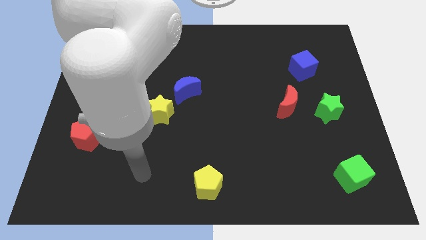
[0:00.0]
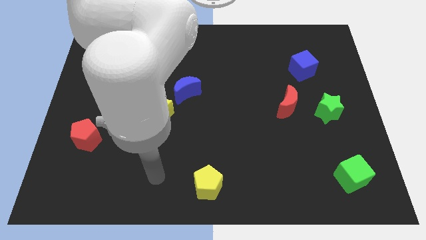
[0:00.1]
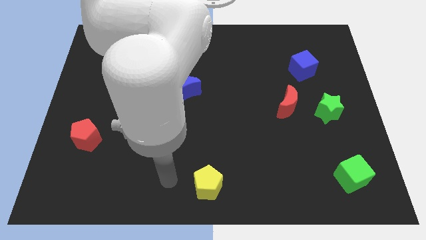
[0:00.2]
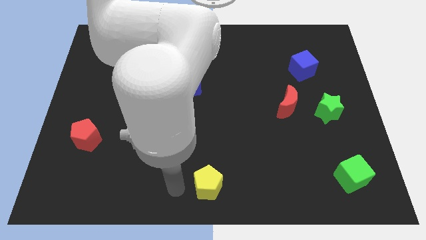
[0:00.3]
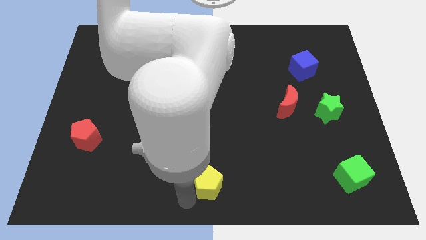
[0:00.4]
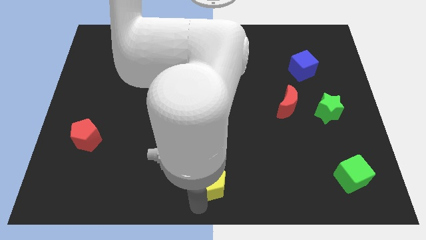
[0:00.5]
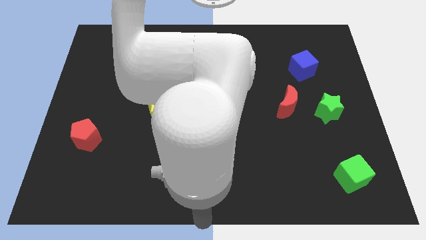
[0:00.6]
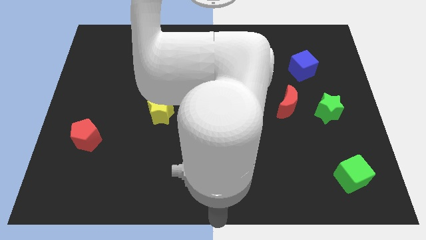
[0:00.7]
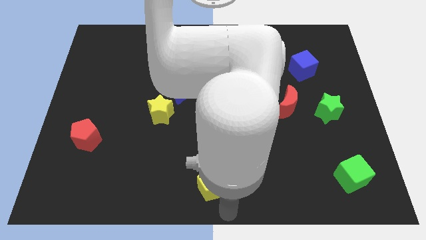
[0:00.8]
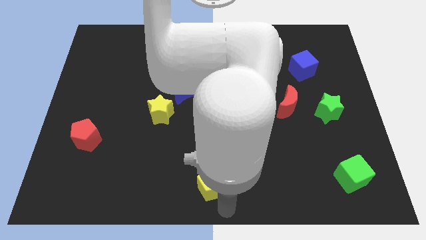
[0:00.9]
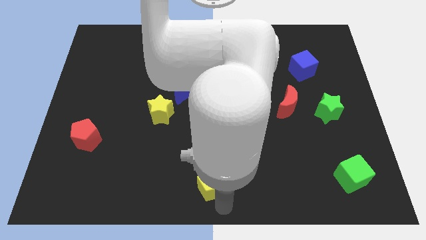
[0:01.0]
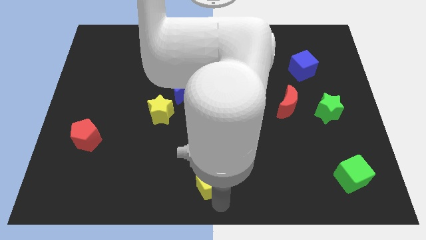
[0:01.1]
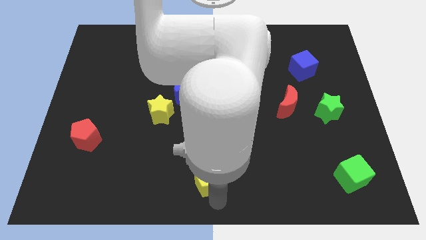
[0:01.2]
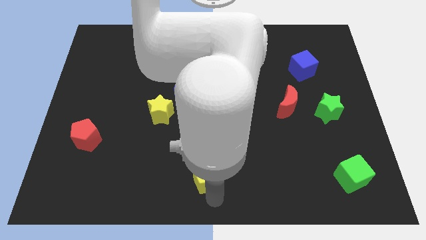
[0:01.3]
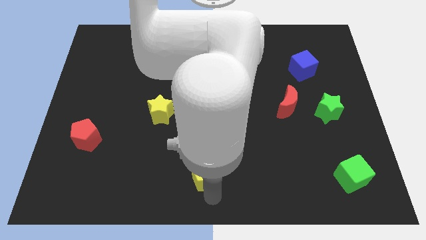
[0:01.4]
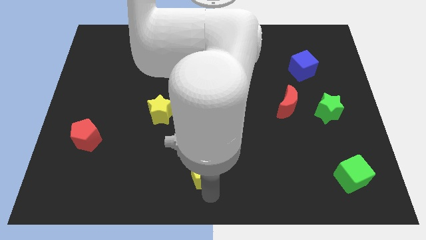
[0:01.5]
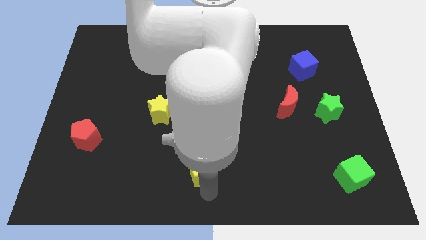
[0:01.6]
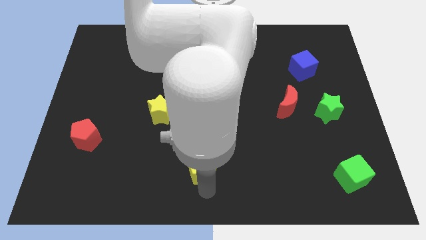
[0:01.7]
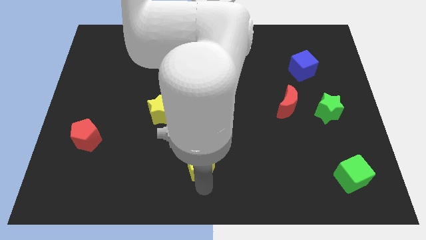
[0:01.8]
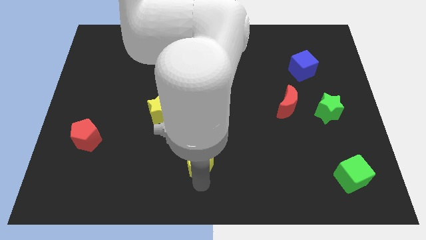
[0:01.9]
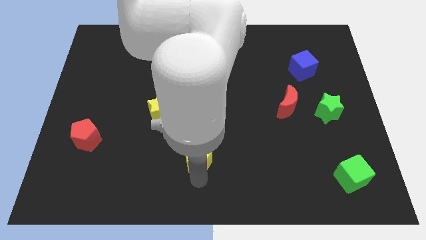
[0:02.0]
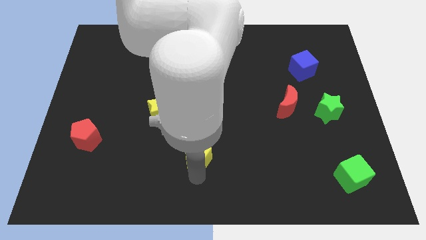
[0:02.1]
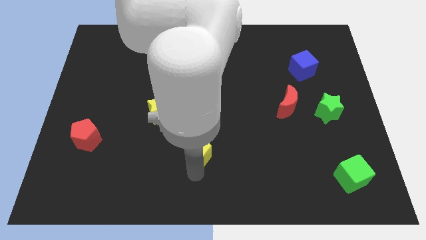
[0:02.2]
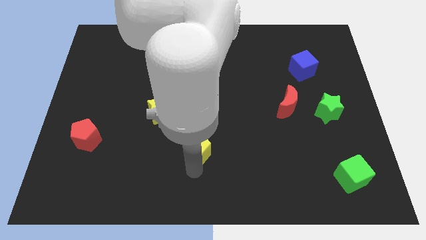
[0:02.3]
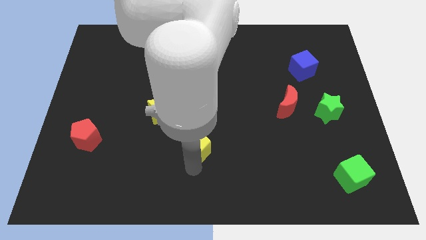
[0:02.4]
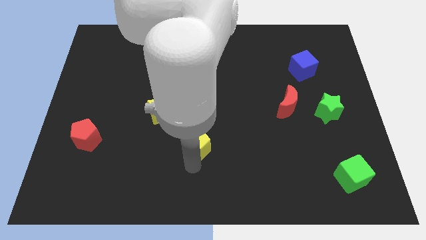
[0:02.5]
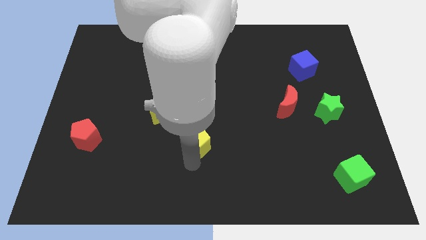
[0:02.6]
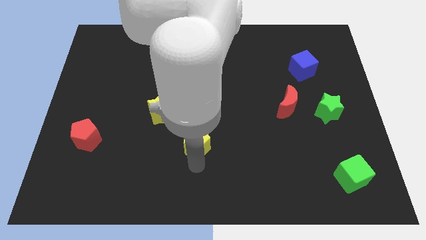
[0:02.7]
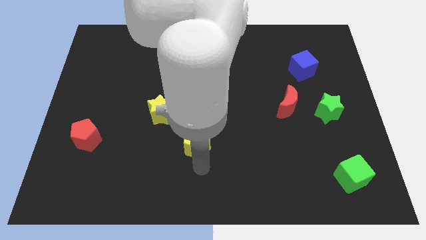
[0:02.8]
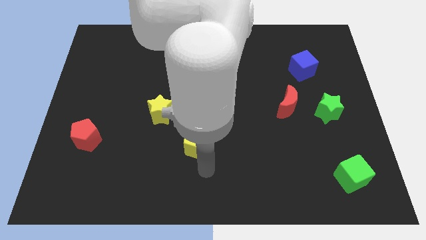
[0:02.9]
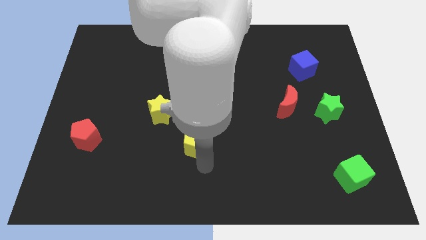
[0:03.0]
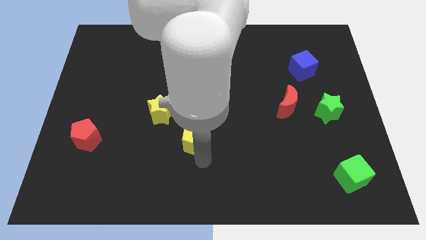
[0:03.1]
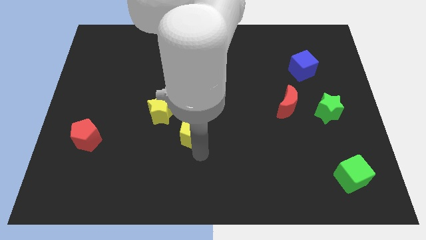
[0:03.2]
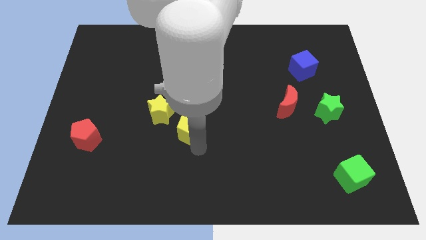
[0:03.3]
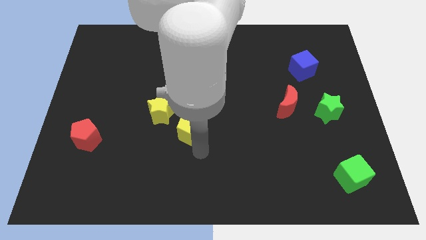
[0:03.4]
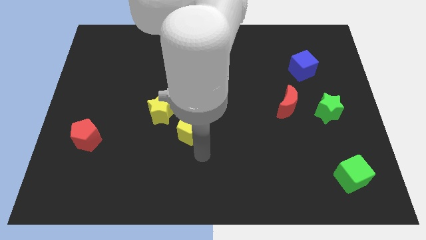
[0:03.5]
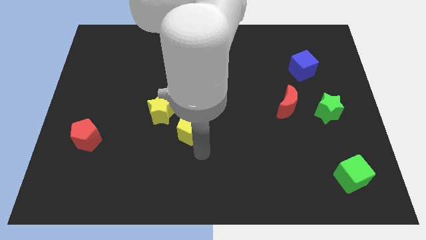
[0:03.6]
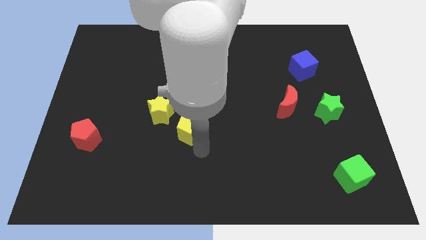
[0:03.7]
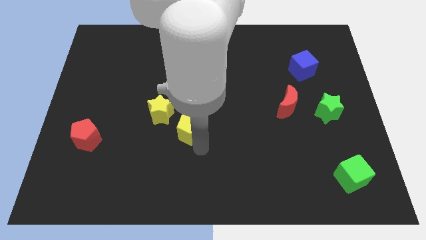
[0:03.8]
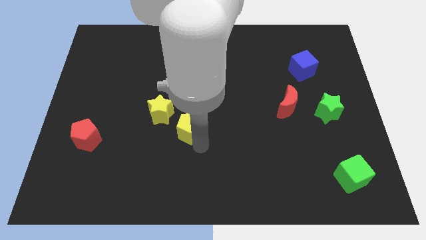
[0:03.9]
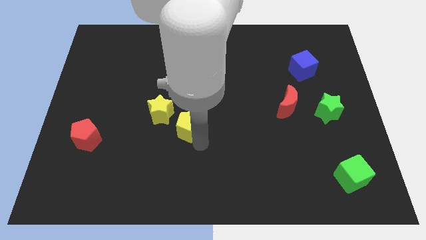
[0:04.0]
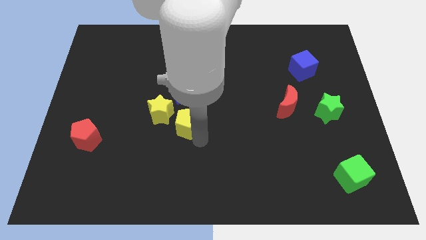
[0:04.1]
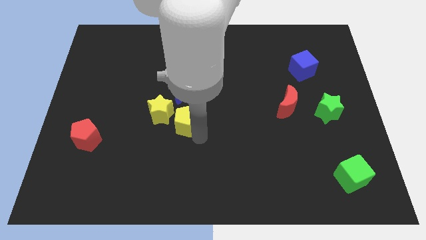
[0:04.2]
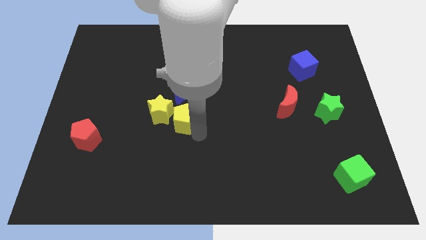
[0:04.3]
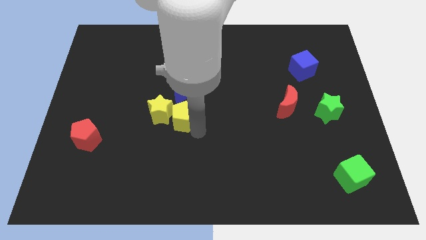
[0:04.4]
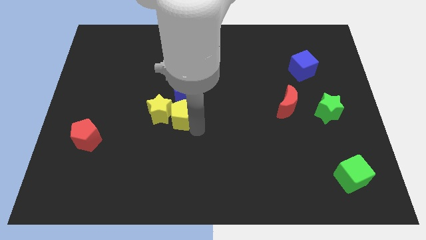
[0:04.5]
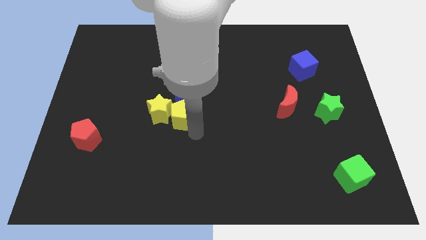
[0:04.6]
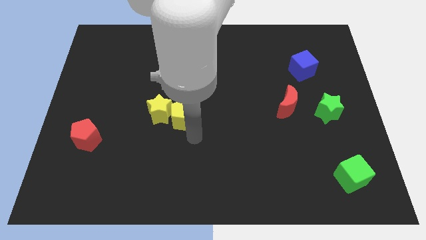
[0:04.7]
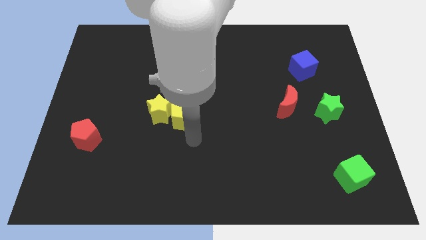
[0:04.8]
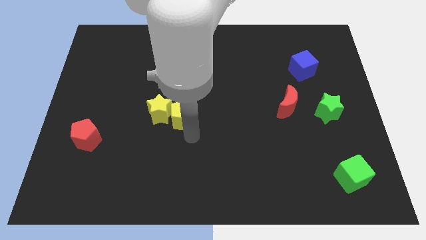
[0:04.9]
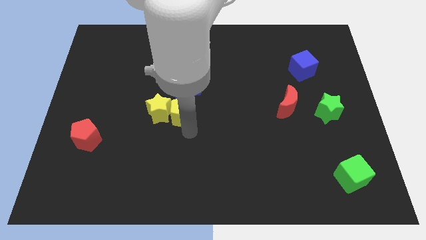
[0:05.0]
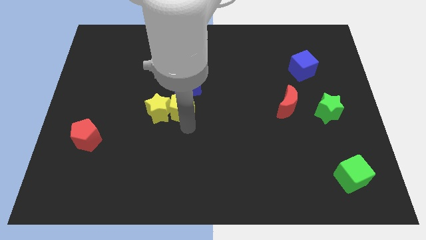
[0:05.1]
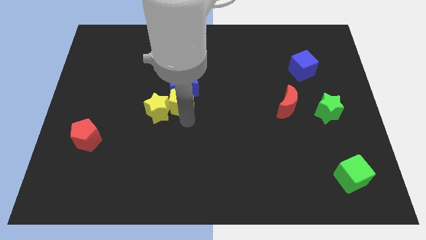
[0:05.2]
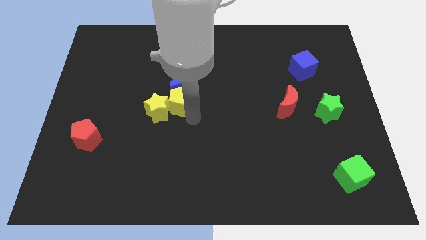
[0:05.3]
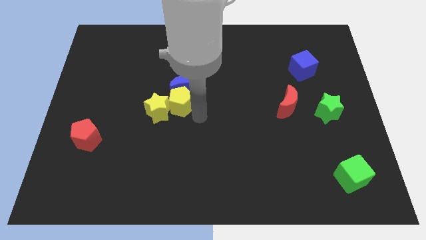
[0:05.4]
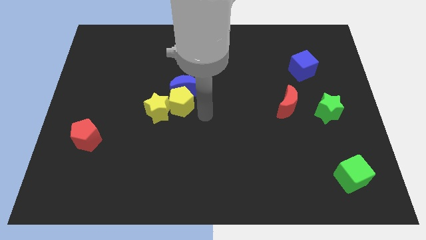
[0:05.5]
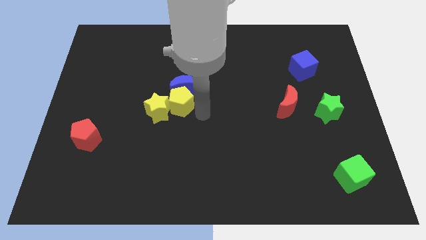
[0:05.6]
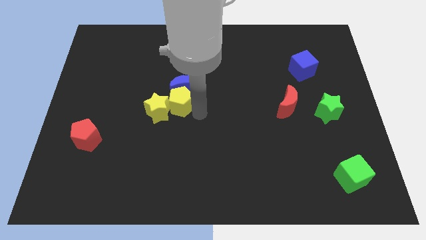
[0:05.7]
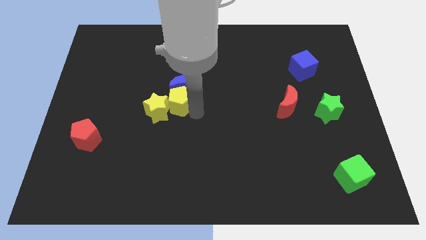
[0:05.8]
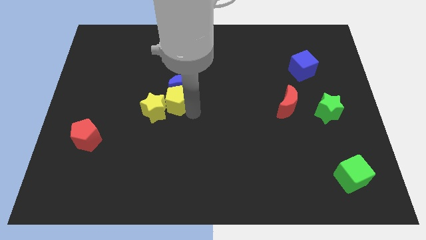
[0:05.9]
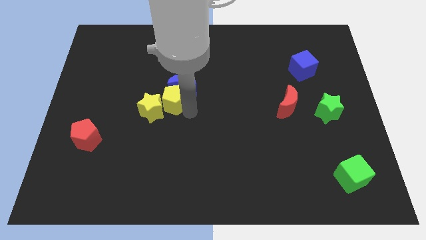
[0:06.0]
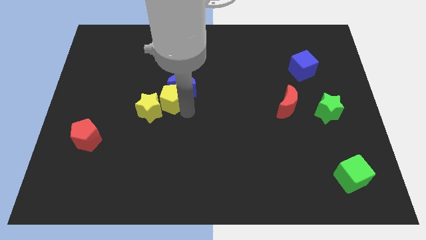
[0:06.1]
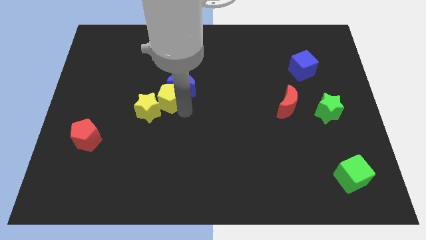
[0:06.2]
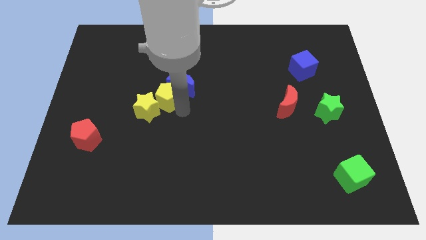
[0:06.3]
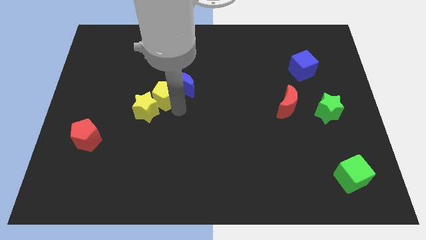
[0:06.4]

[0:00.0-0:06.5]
put the yellow pentagon to the top side of the yellow star
